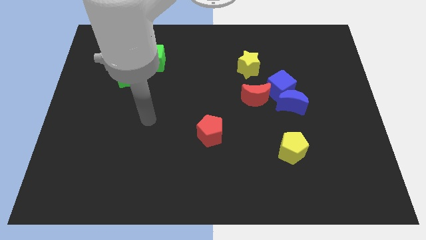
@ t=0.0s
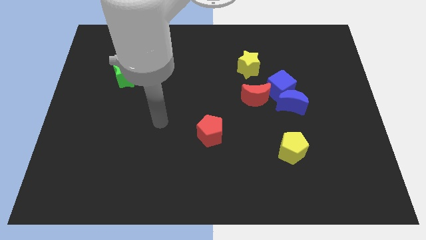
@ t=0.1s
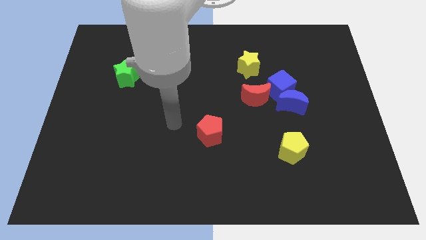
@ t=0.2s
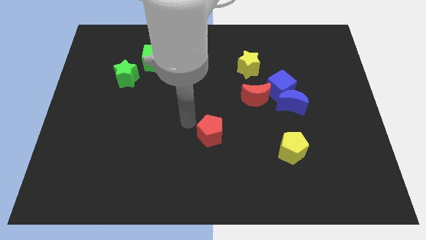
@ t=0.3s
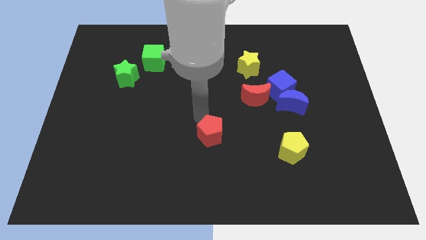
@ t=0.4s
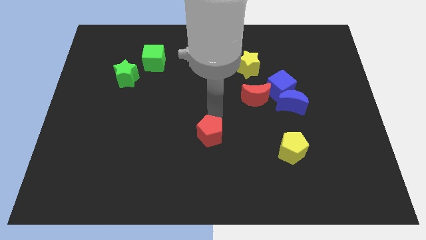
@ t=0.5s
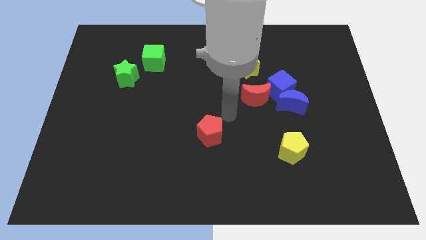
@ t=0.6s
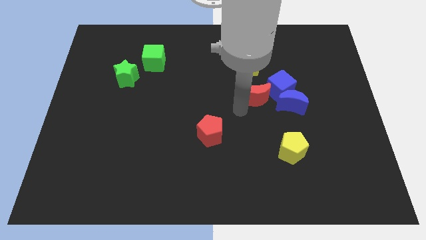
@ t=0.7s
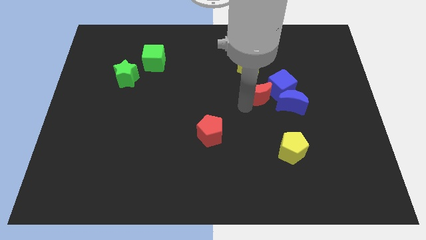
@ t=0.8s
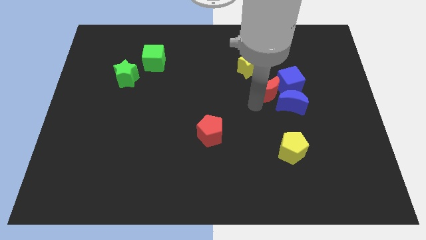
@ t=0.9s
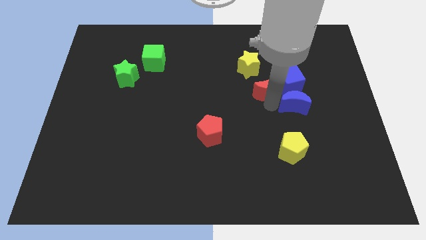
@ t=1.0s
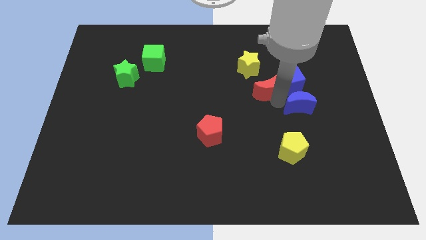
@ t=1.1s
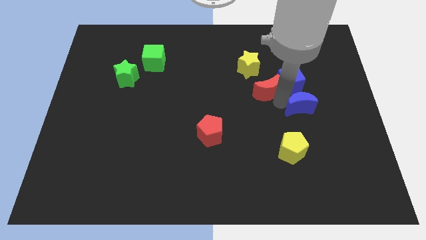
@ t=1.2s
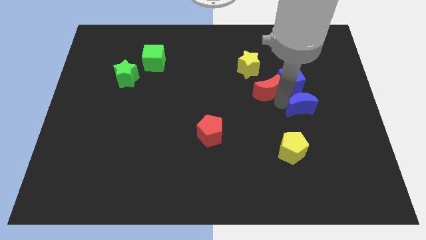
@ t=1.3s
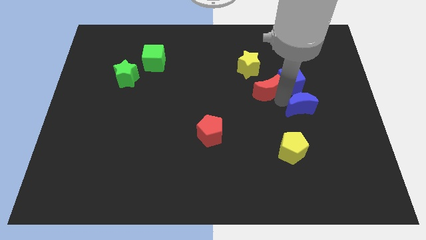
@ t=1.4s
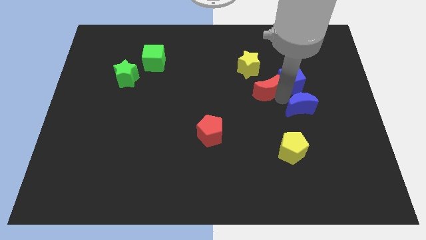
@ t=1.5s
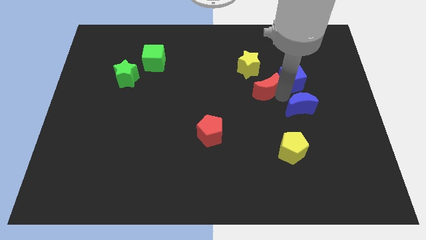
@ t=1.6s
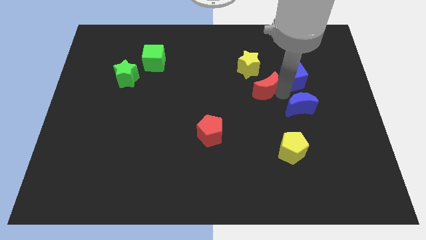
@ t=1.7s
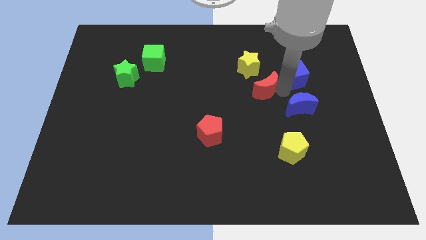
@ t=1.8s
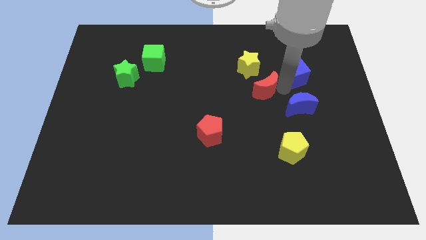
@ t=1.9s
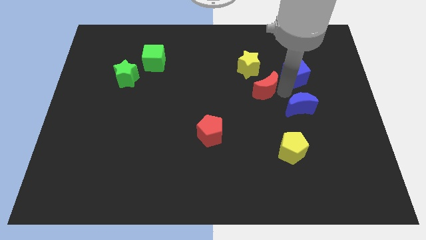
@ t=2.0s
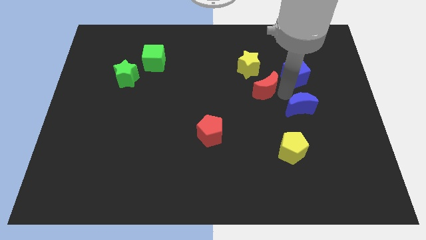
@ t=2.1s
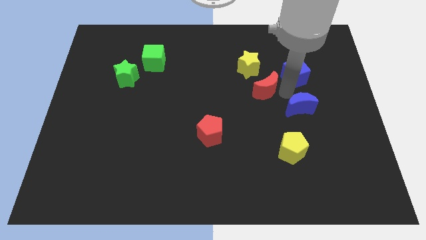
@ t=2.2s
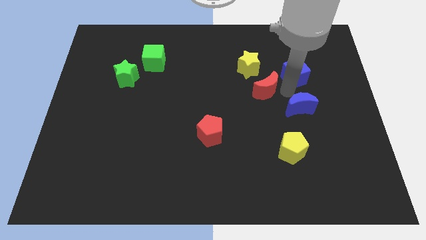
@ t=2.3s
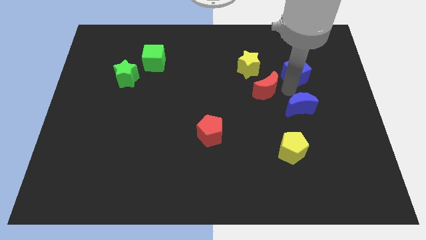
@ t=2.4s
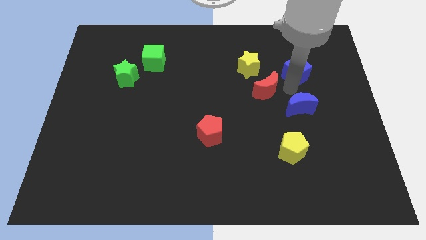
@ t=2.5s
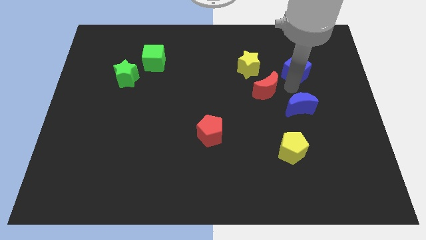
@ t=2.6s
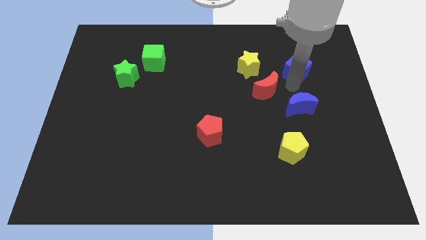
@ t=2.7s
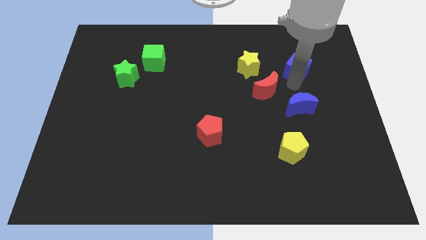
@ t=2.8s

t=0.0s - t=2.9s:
move the blue cube away from the blue moon and red moon

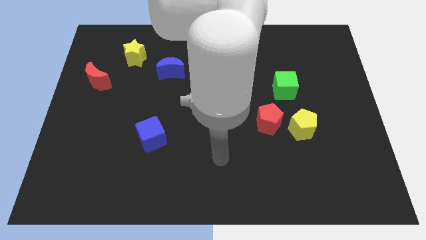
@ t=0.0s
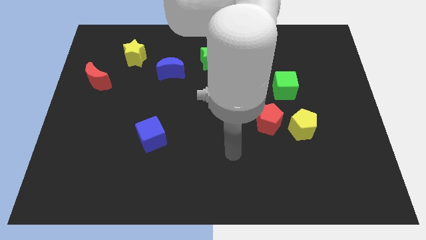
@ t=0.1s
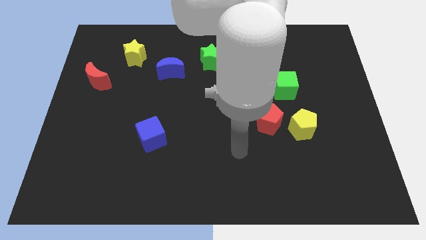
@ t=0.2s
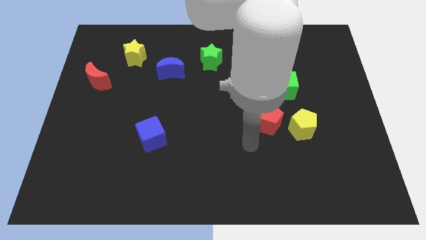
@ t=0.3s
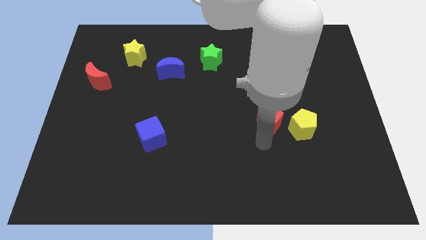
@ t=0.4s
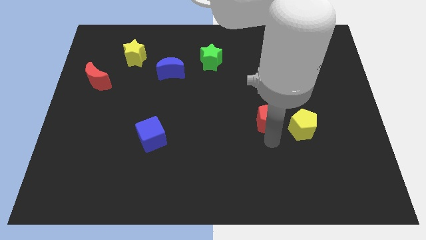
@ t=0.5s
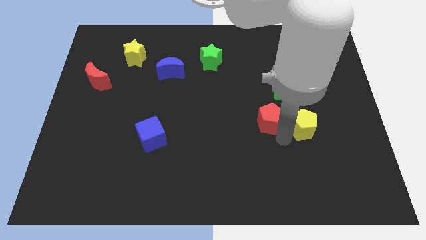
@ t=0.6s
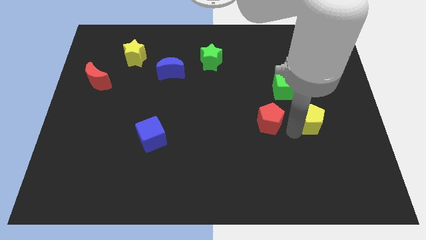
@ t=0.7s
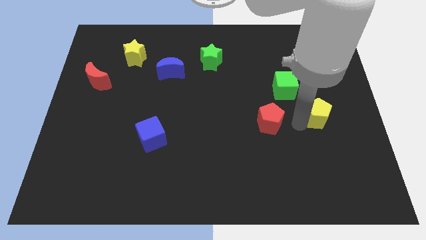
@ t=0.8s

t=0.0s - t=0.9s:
move the red pentagon away from the yellow pentagon

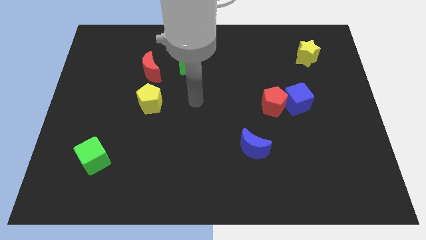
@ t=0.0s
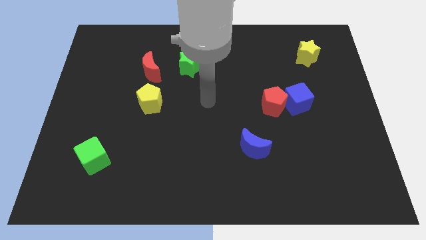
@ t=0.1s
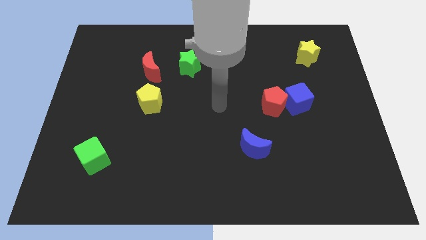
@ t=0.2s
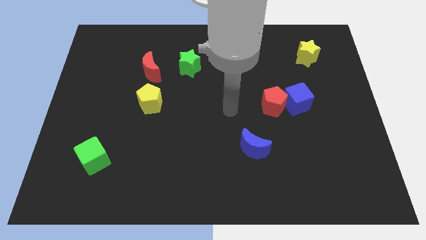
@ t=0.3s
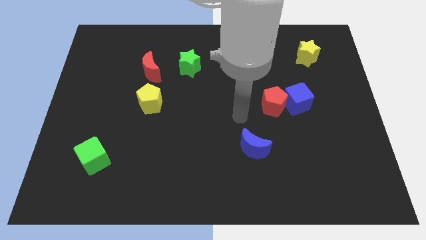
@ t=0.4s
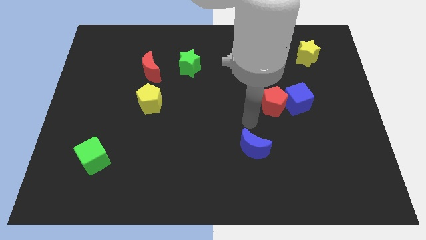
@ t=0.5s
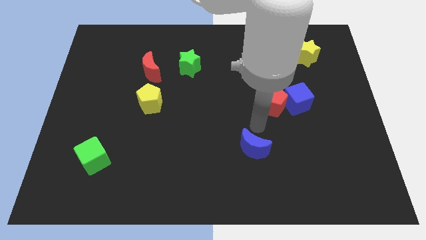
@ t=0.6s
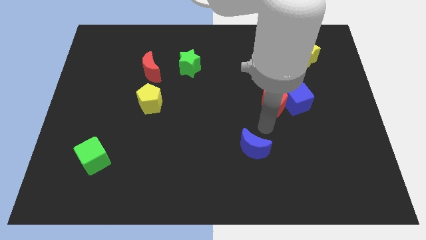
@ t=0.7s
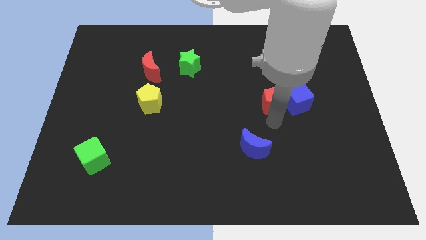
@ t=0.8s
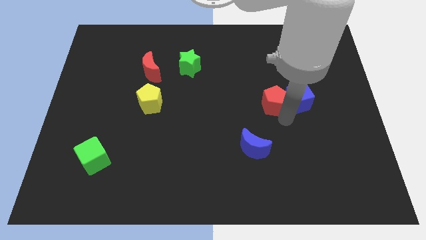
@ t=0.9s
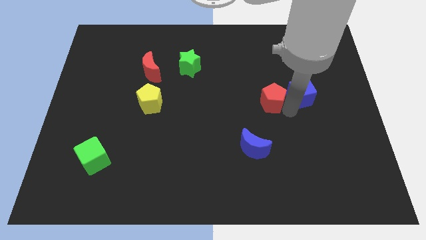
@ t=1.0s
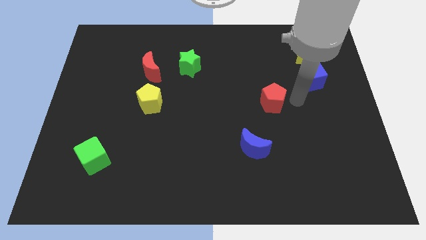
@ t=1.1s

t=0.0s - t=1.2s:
separate the red pentagon from the blue cube

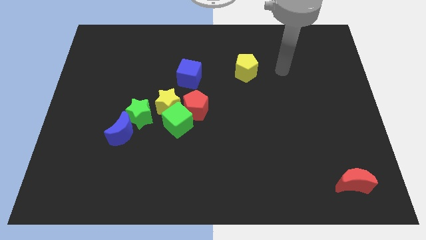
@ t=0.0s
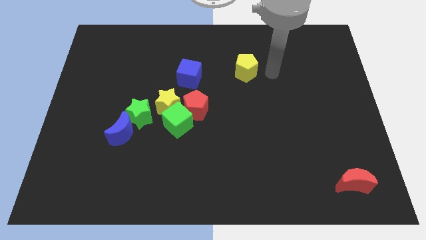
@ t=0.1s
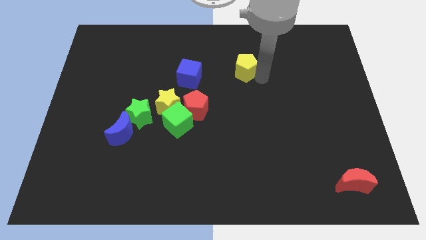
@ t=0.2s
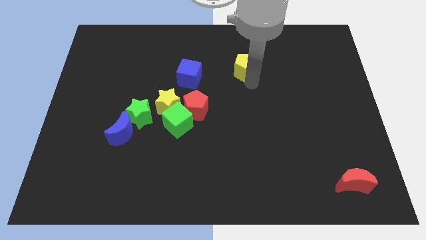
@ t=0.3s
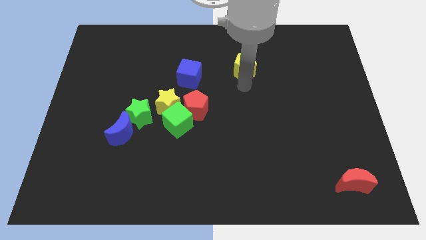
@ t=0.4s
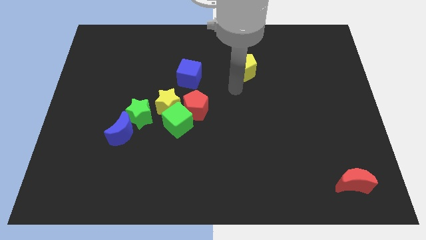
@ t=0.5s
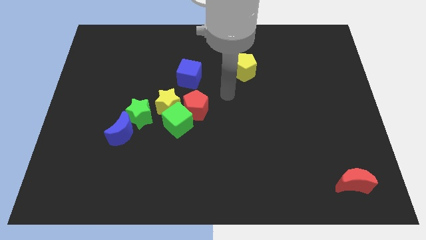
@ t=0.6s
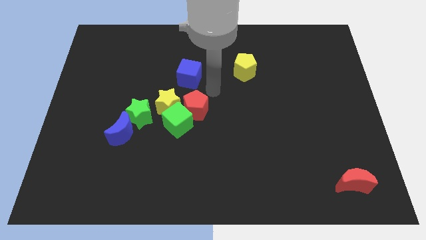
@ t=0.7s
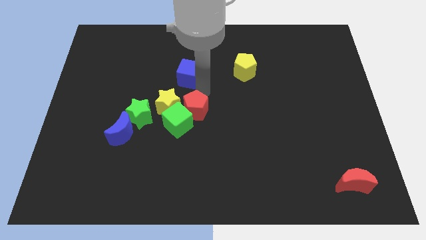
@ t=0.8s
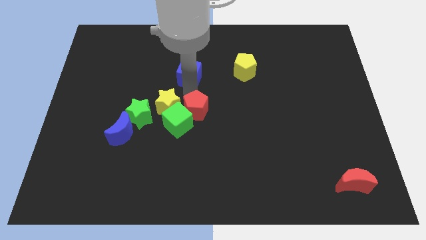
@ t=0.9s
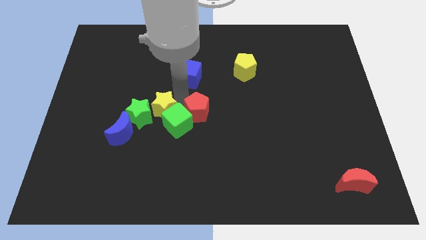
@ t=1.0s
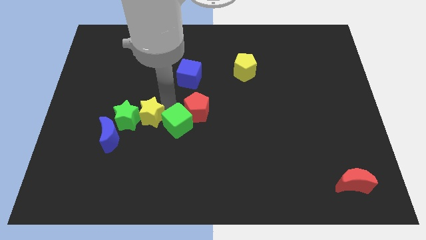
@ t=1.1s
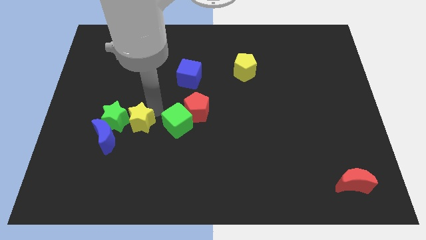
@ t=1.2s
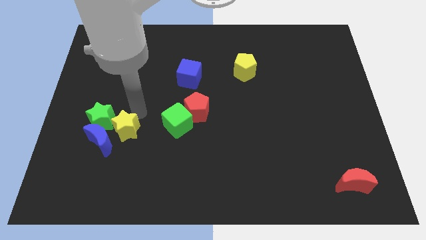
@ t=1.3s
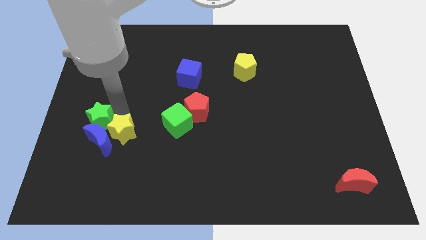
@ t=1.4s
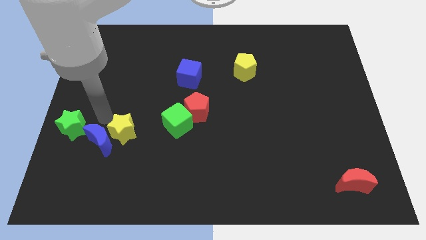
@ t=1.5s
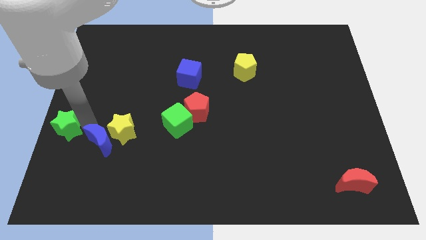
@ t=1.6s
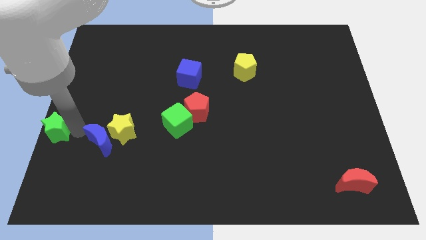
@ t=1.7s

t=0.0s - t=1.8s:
move the blue moon away from the green star

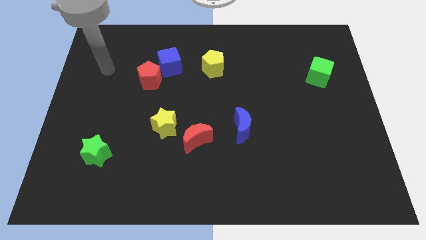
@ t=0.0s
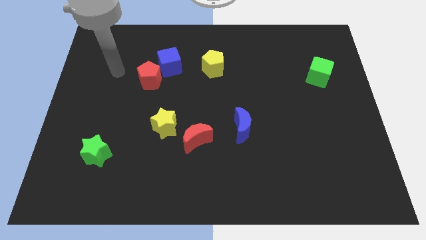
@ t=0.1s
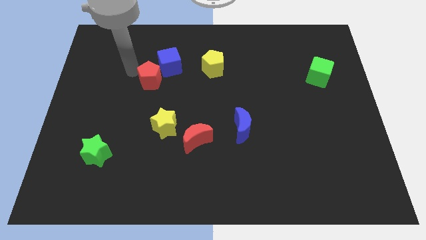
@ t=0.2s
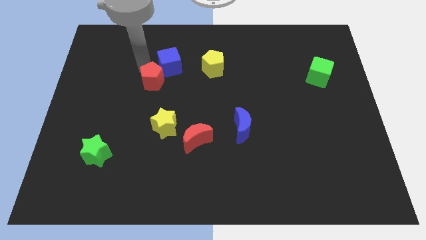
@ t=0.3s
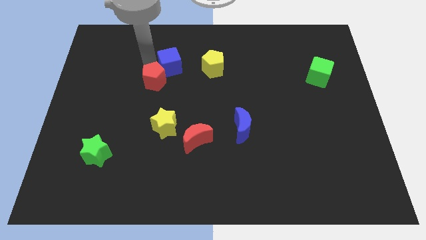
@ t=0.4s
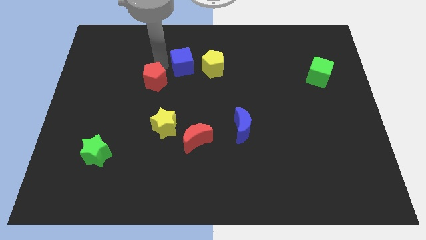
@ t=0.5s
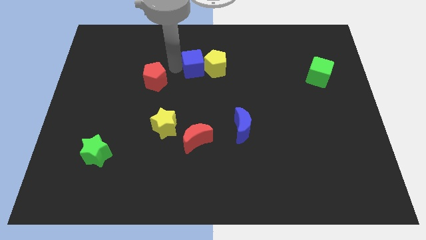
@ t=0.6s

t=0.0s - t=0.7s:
move the red pentagon away from the blue cube

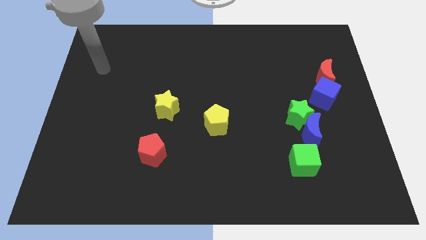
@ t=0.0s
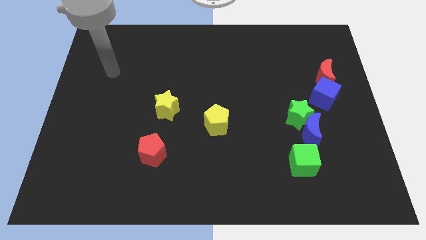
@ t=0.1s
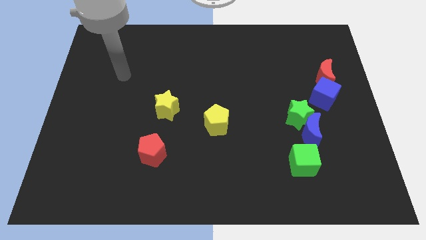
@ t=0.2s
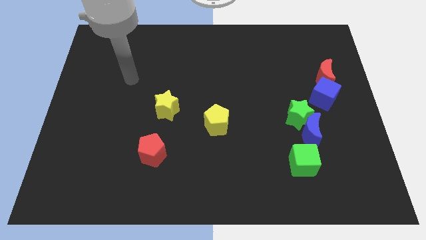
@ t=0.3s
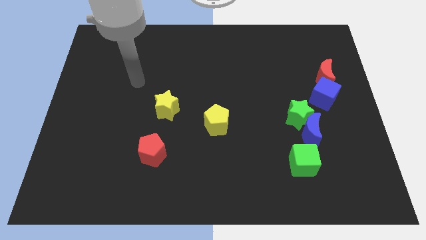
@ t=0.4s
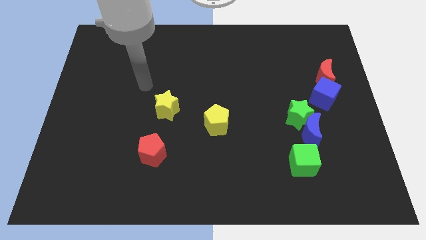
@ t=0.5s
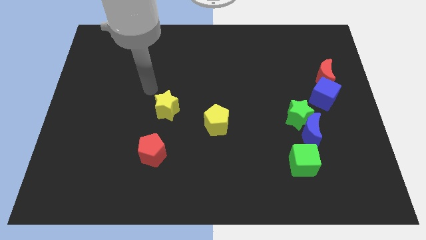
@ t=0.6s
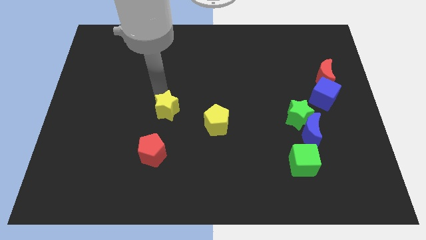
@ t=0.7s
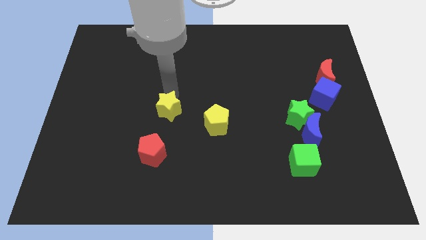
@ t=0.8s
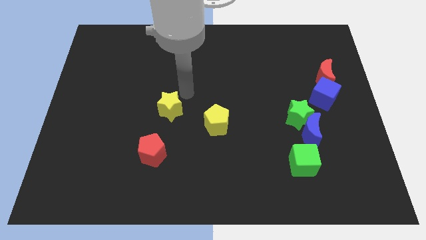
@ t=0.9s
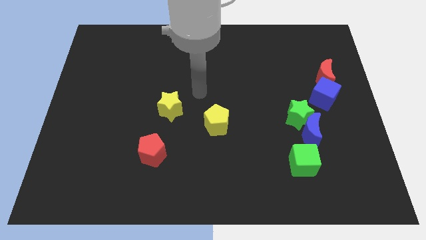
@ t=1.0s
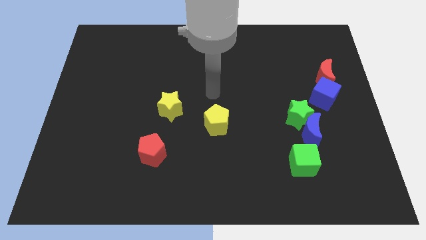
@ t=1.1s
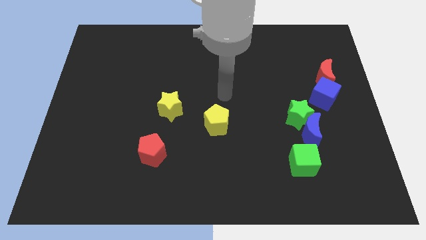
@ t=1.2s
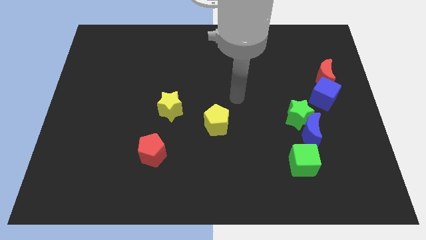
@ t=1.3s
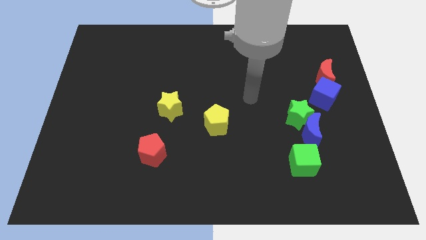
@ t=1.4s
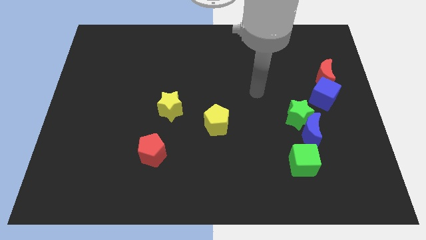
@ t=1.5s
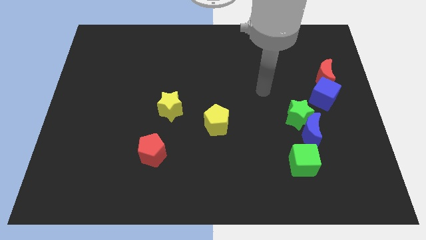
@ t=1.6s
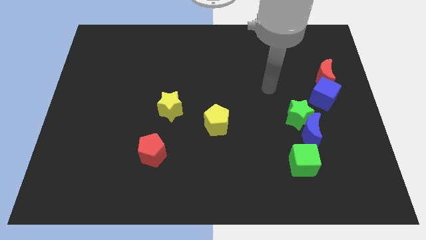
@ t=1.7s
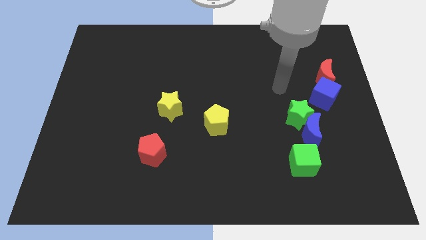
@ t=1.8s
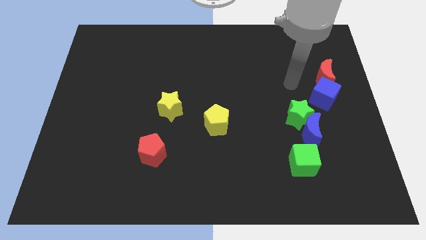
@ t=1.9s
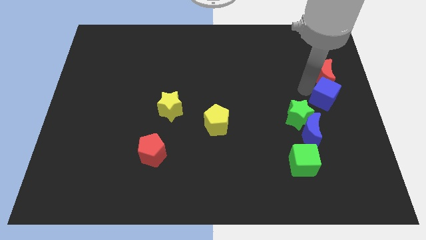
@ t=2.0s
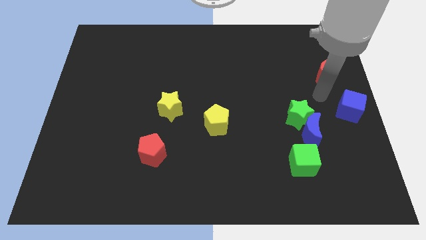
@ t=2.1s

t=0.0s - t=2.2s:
pull the red moon apart from the blue cube
